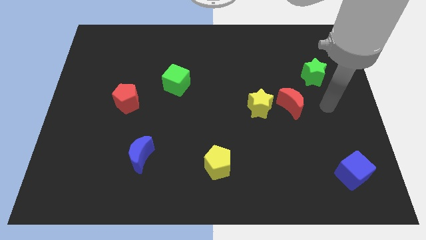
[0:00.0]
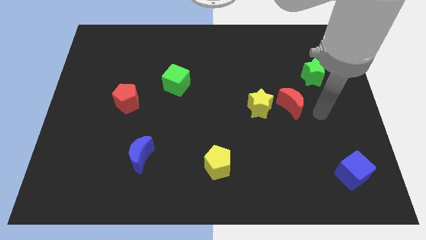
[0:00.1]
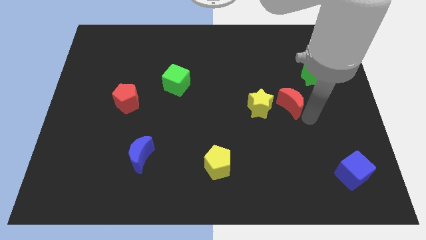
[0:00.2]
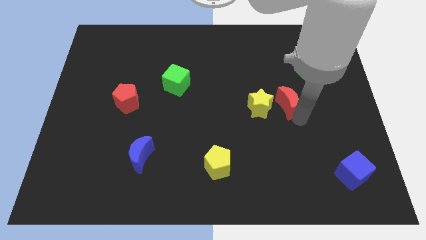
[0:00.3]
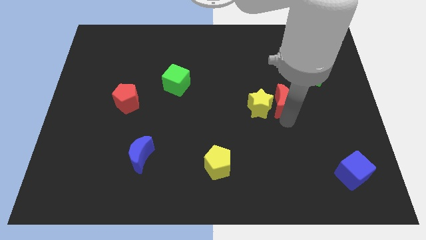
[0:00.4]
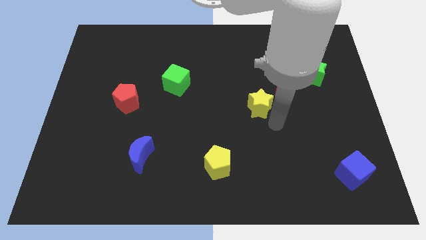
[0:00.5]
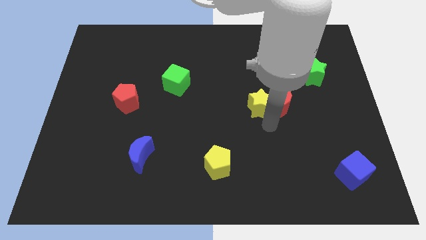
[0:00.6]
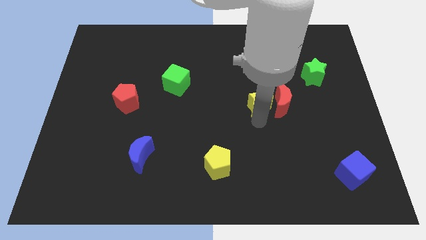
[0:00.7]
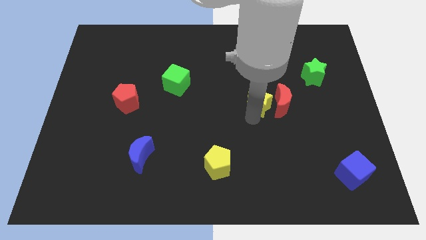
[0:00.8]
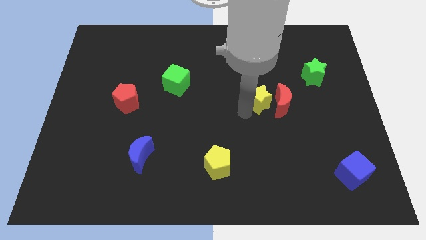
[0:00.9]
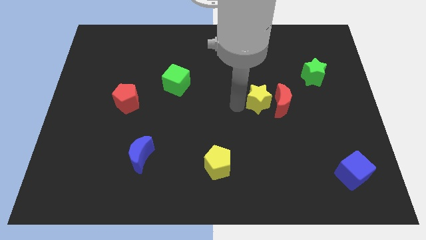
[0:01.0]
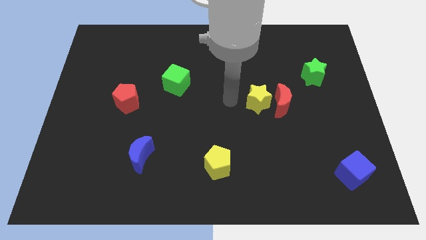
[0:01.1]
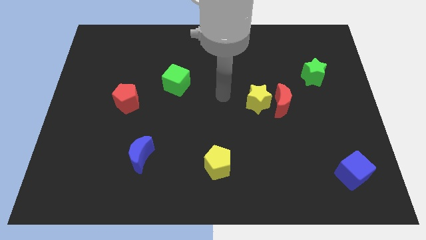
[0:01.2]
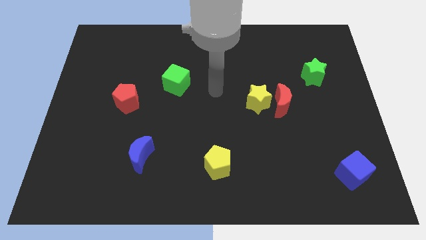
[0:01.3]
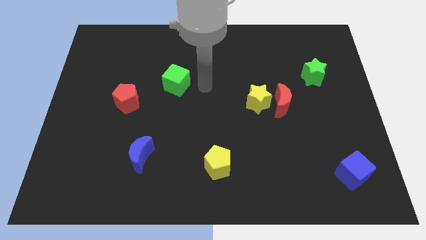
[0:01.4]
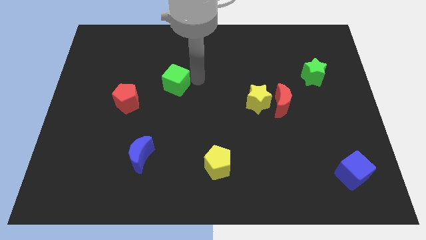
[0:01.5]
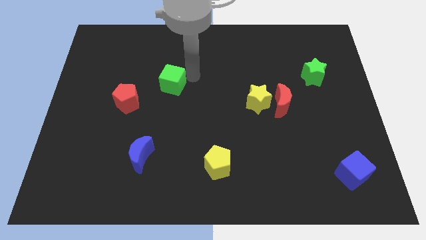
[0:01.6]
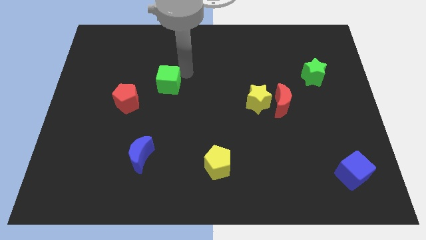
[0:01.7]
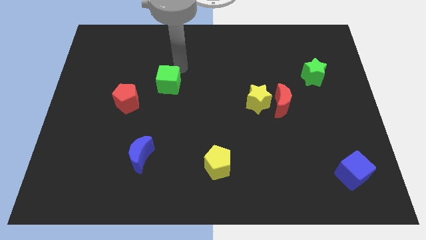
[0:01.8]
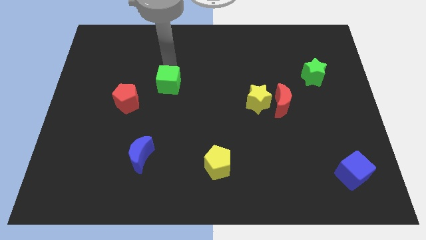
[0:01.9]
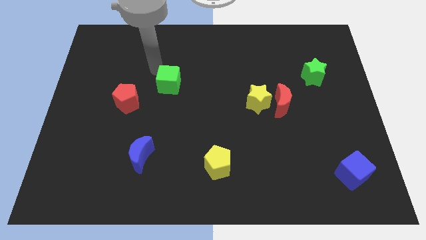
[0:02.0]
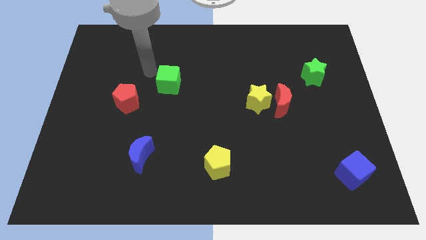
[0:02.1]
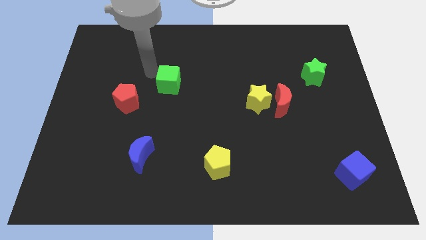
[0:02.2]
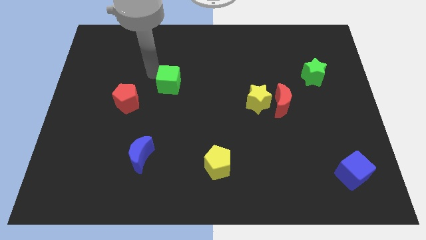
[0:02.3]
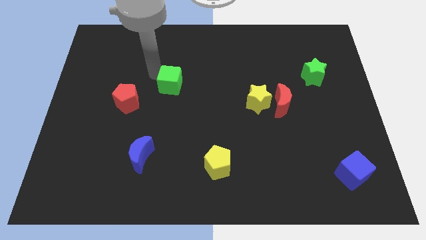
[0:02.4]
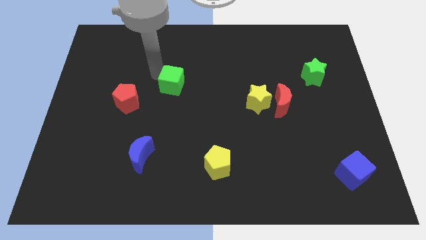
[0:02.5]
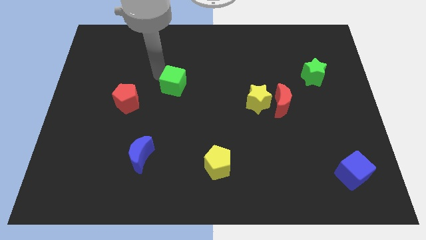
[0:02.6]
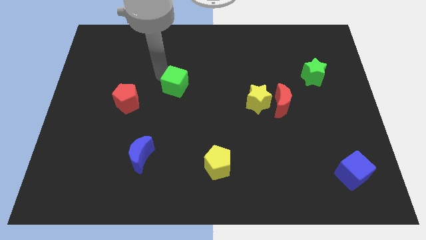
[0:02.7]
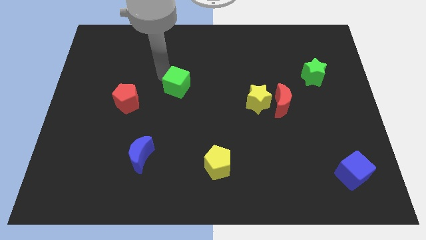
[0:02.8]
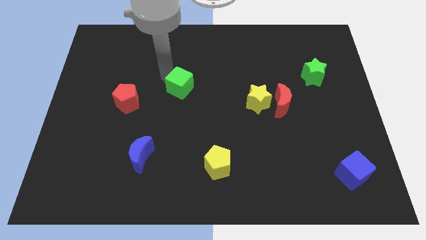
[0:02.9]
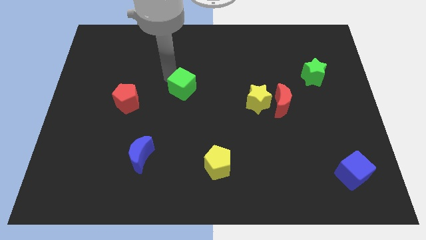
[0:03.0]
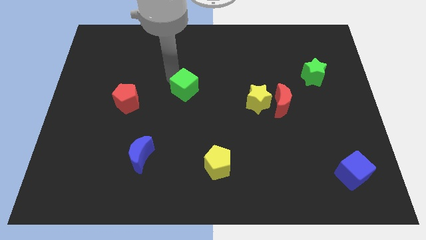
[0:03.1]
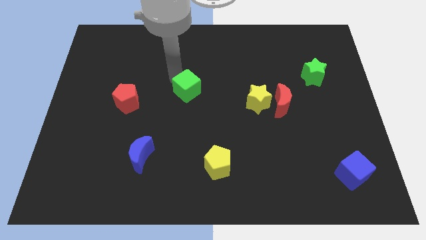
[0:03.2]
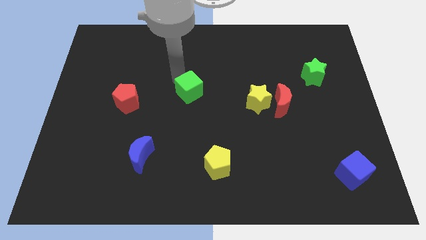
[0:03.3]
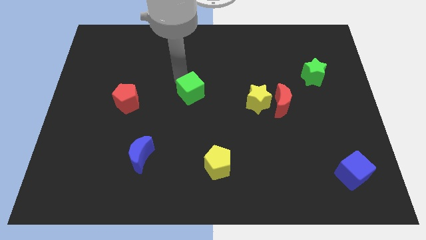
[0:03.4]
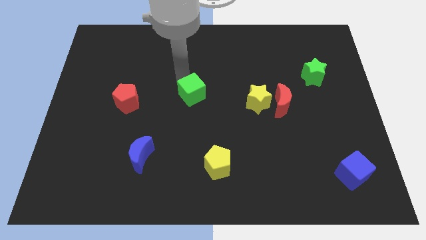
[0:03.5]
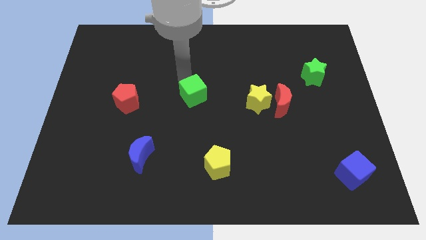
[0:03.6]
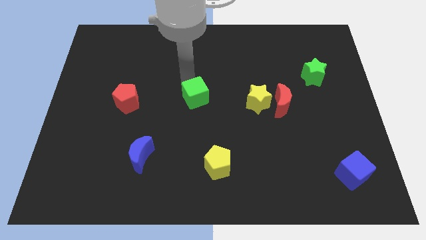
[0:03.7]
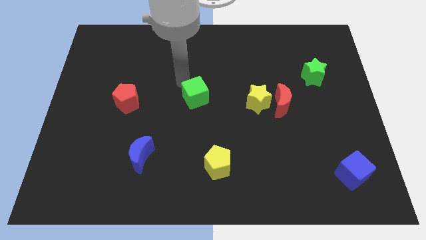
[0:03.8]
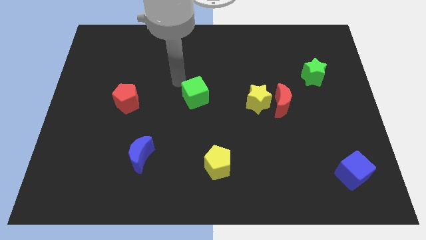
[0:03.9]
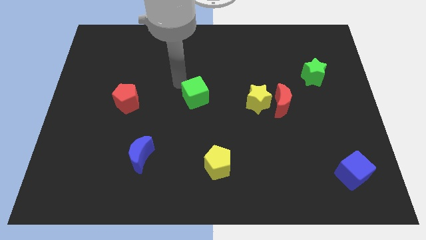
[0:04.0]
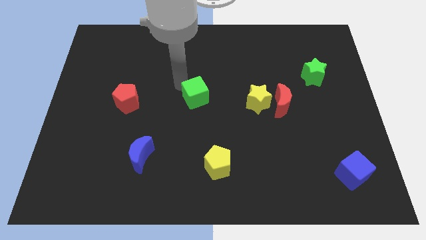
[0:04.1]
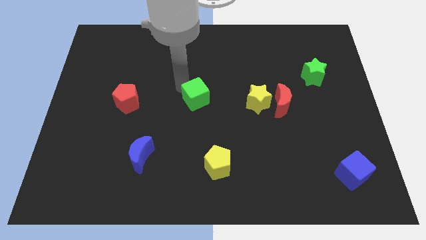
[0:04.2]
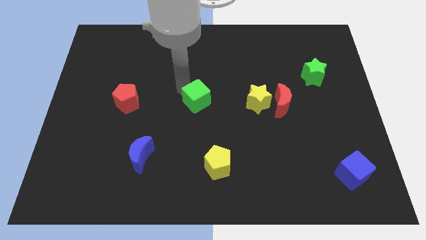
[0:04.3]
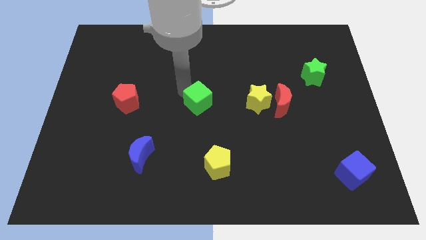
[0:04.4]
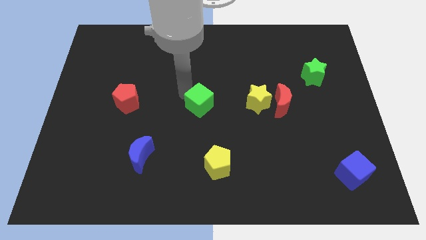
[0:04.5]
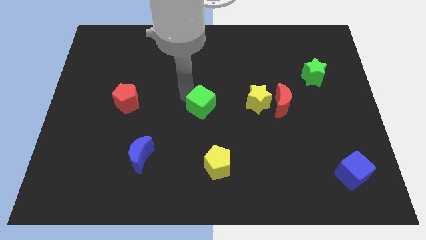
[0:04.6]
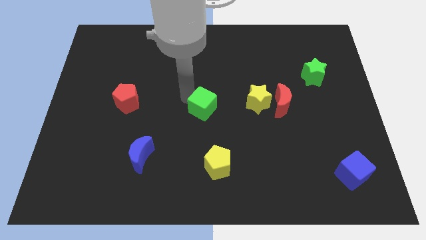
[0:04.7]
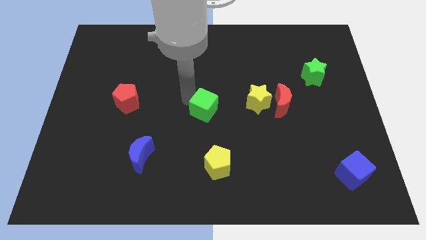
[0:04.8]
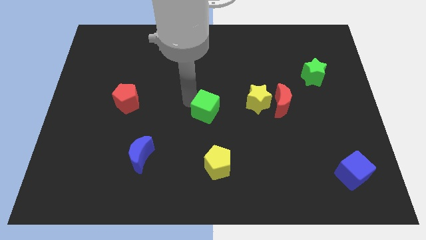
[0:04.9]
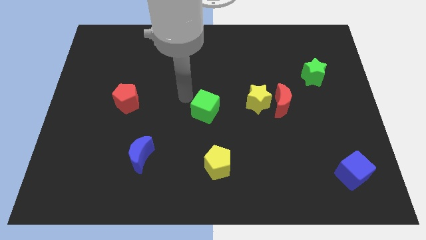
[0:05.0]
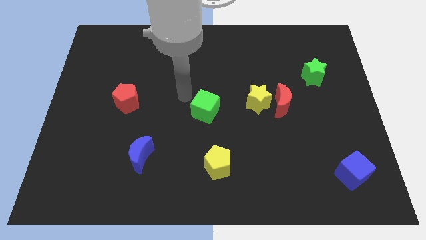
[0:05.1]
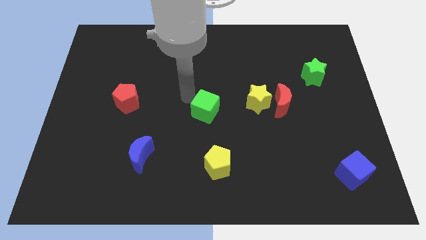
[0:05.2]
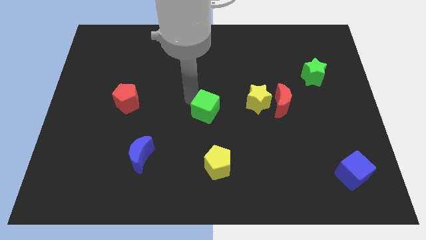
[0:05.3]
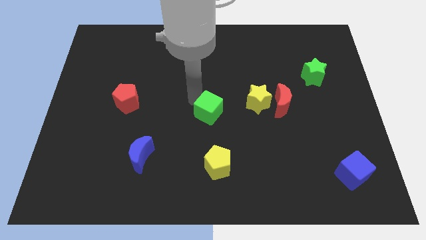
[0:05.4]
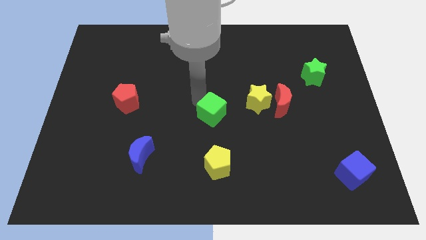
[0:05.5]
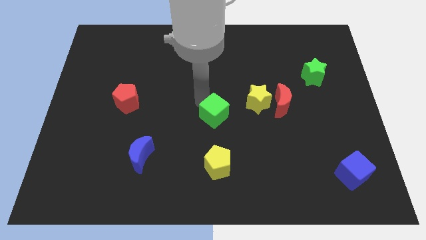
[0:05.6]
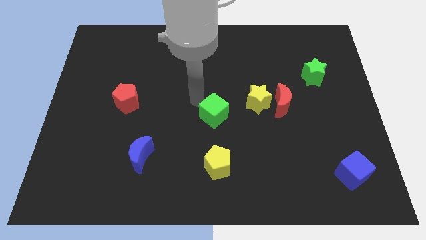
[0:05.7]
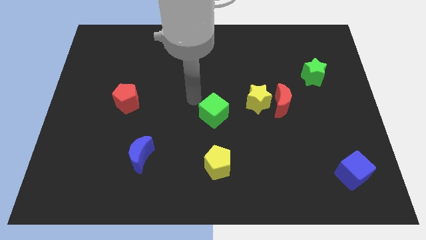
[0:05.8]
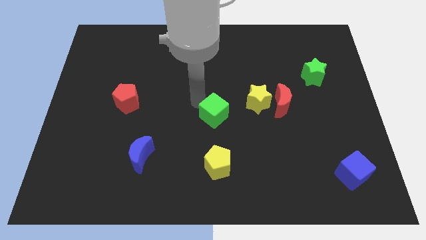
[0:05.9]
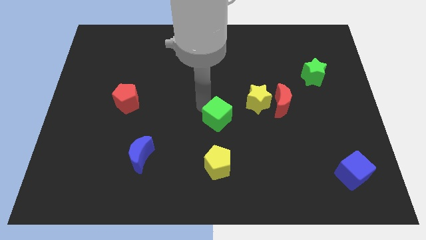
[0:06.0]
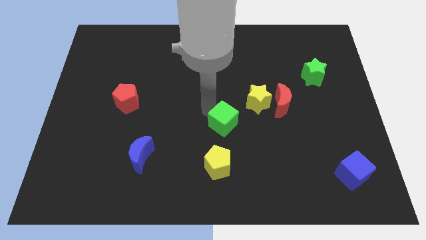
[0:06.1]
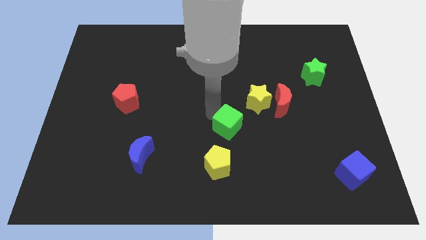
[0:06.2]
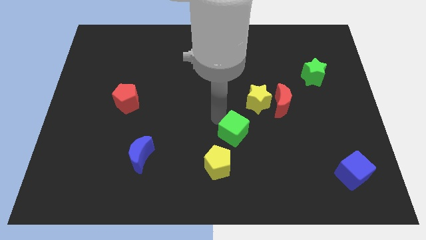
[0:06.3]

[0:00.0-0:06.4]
push the green cube down and then right

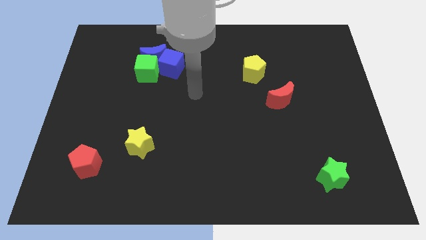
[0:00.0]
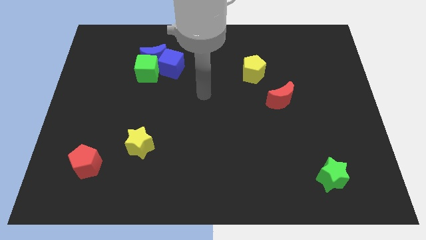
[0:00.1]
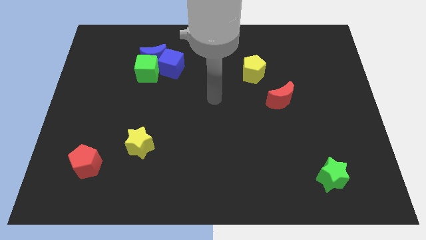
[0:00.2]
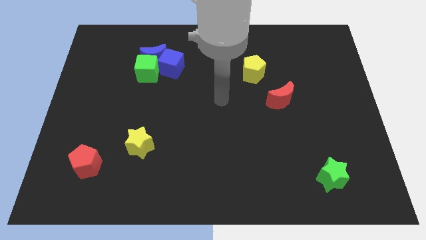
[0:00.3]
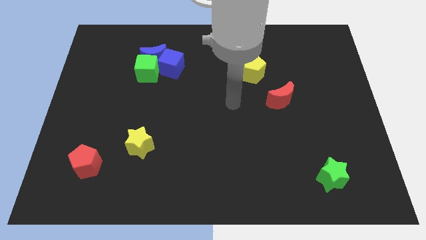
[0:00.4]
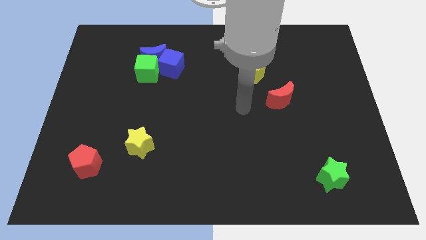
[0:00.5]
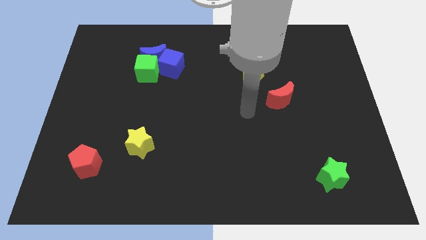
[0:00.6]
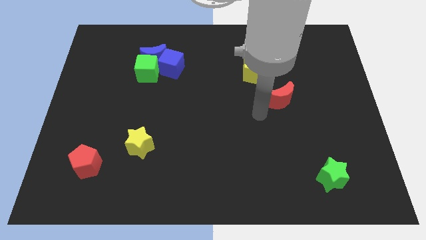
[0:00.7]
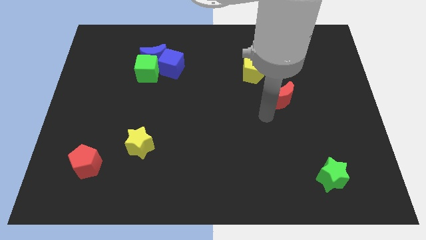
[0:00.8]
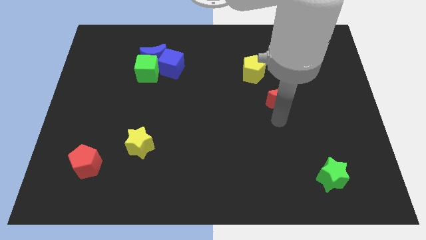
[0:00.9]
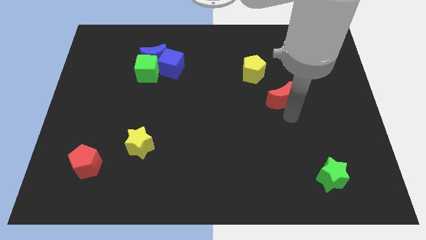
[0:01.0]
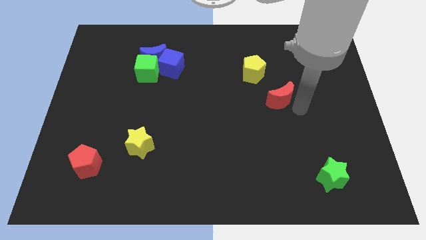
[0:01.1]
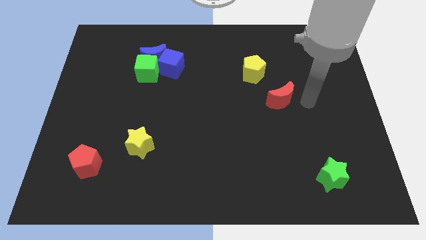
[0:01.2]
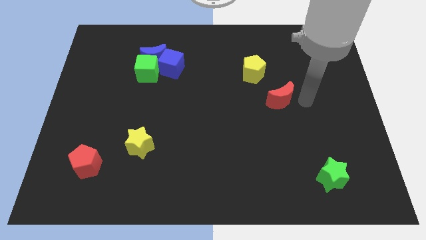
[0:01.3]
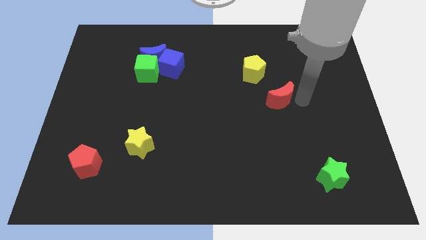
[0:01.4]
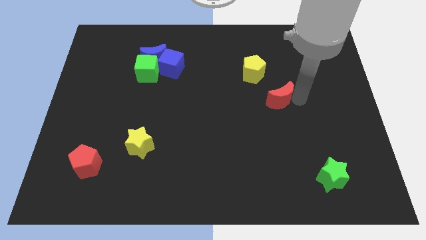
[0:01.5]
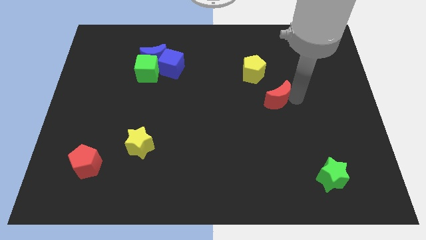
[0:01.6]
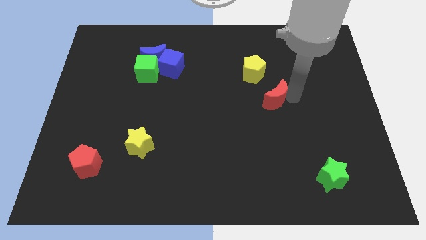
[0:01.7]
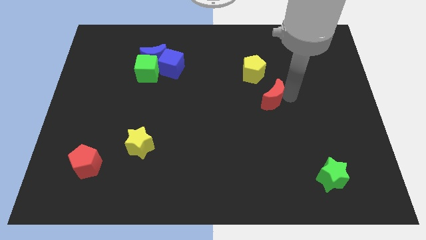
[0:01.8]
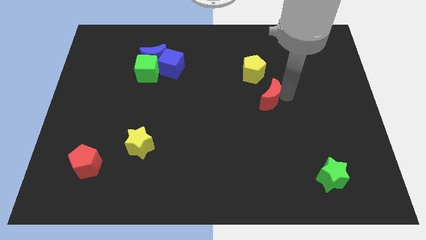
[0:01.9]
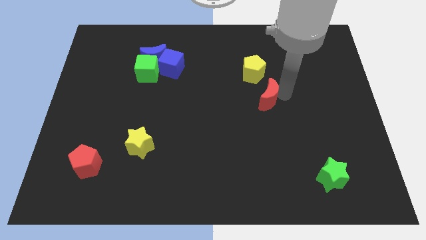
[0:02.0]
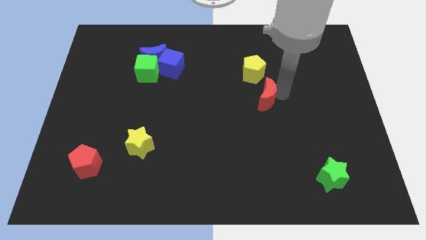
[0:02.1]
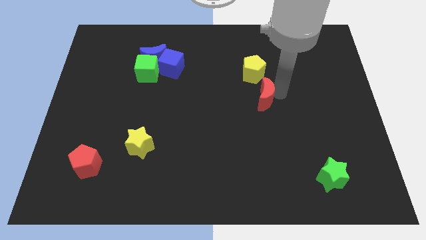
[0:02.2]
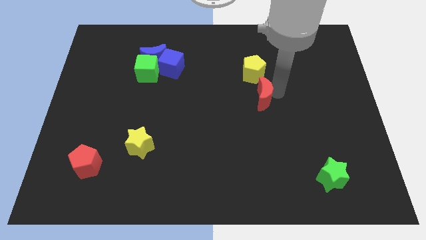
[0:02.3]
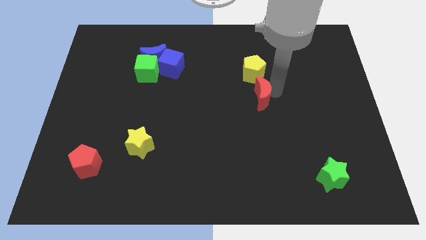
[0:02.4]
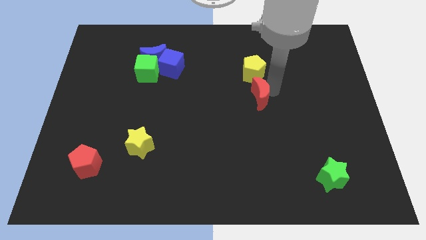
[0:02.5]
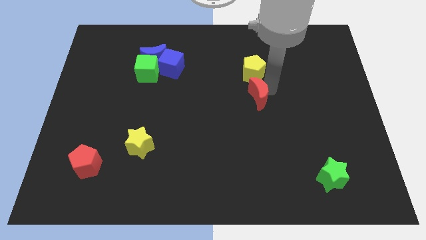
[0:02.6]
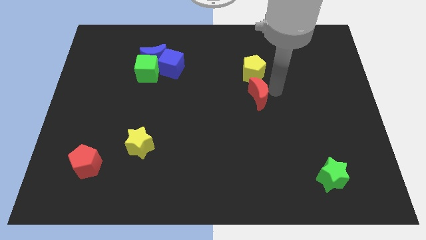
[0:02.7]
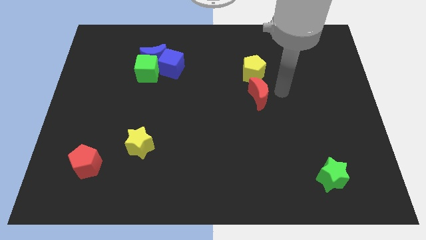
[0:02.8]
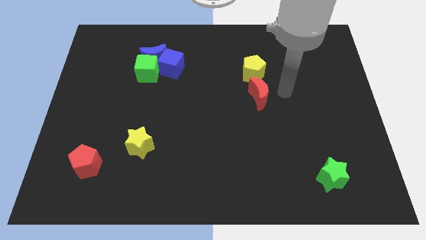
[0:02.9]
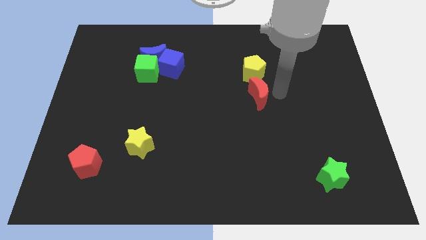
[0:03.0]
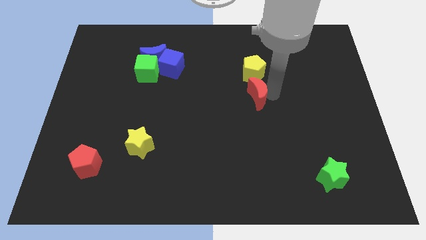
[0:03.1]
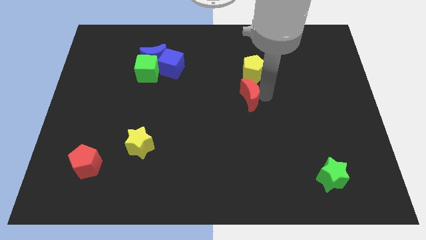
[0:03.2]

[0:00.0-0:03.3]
slightly push the red moon left
